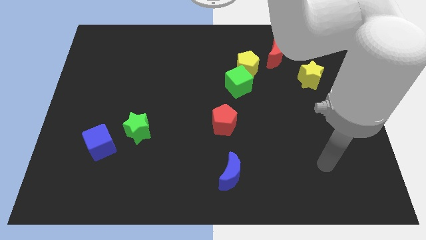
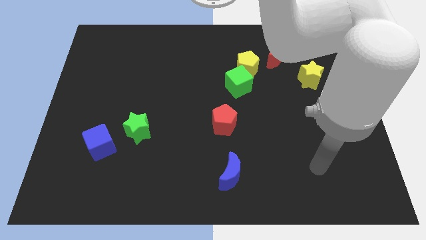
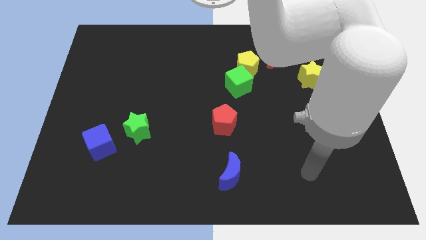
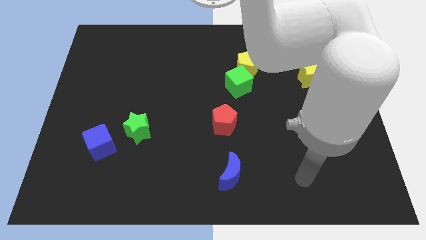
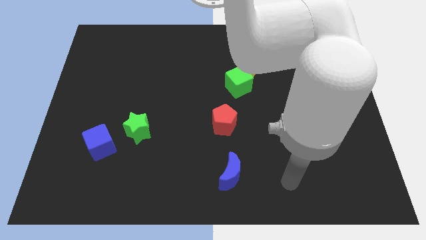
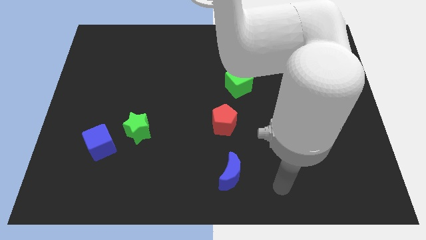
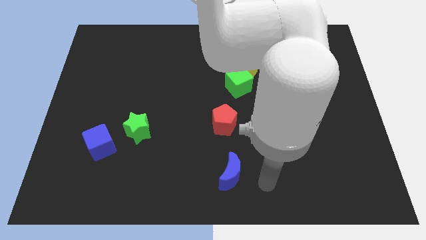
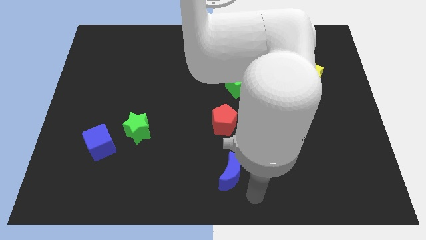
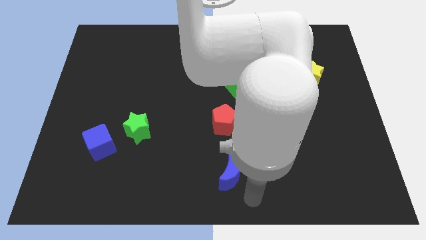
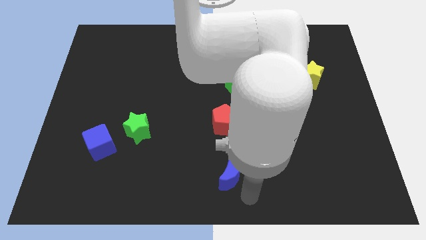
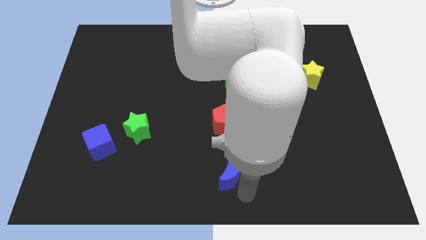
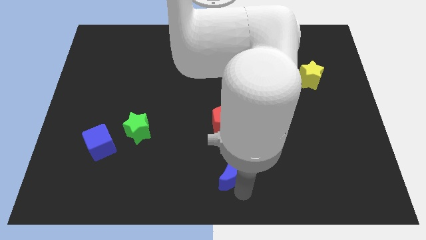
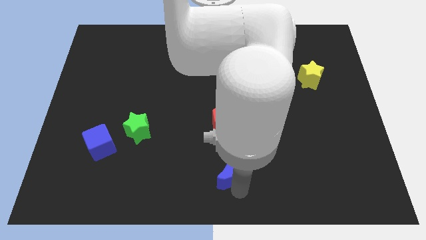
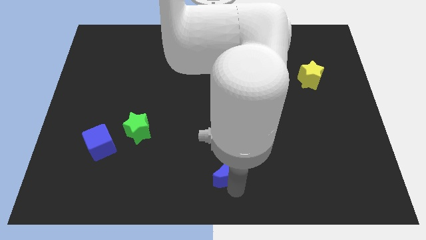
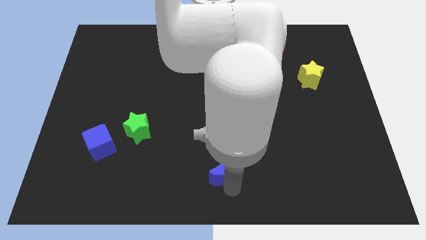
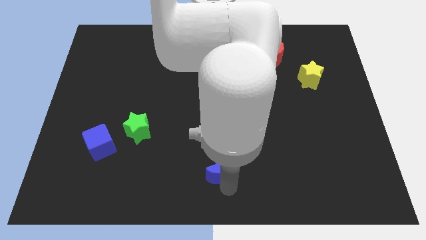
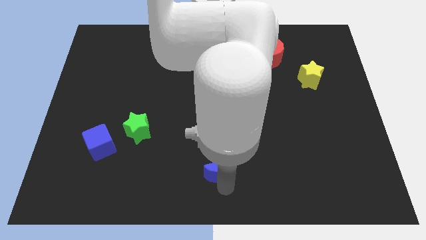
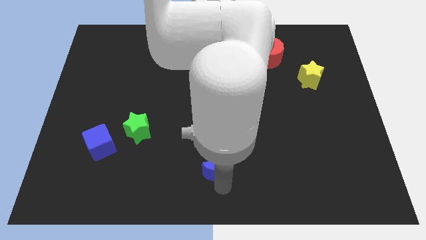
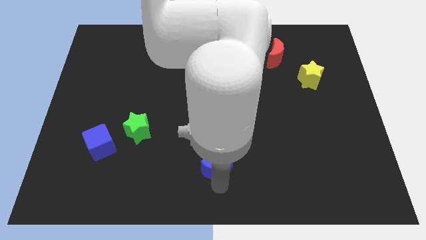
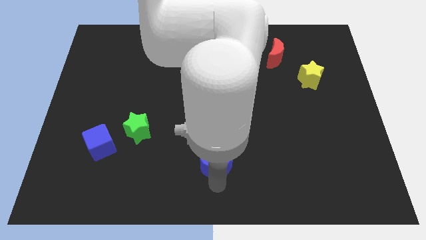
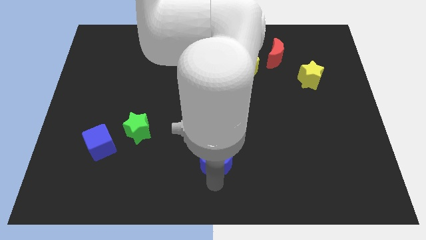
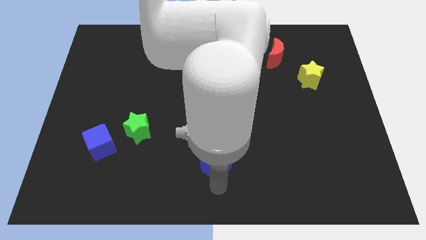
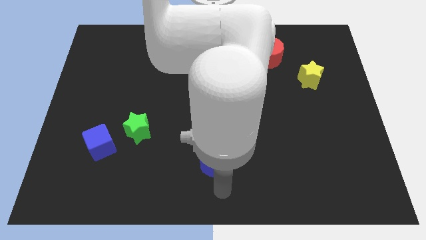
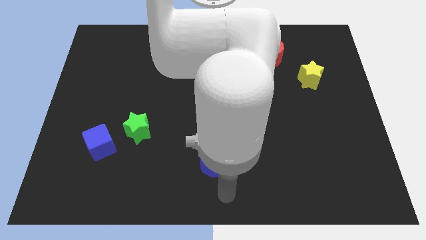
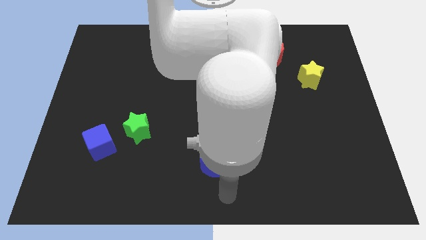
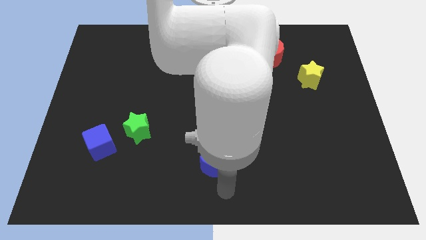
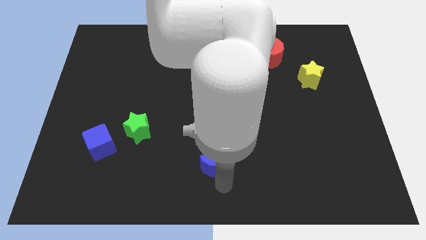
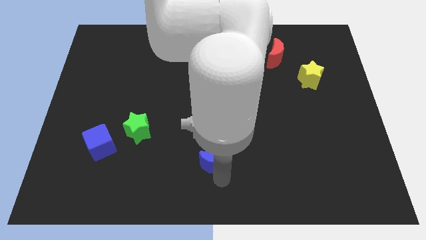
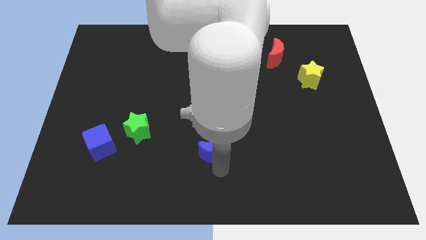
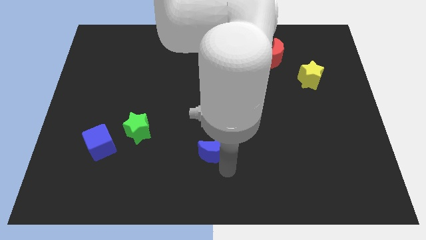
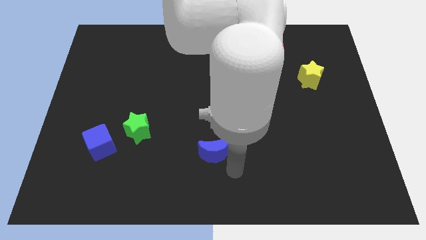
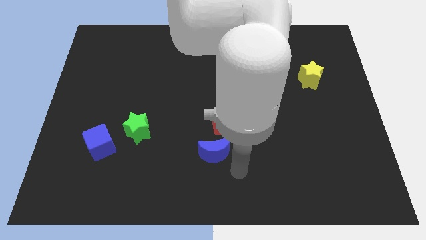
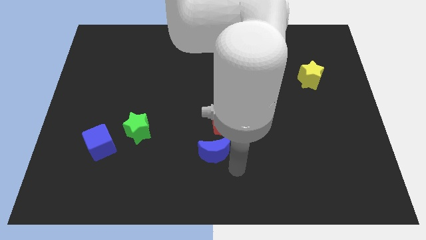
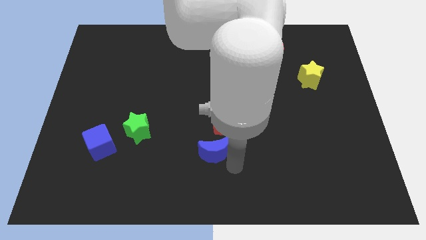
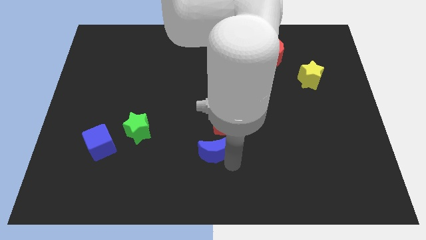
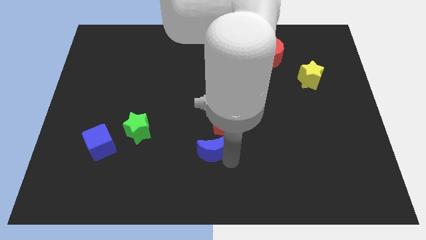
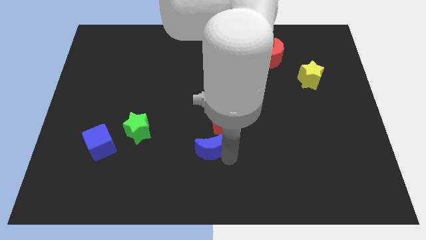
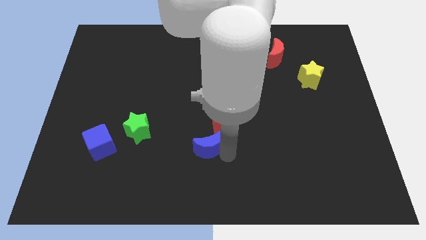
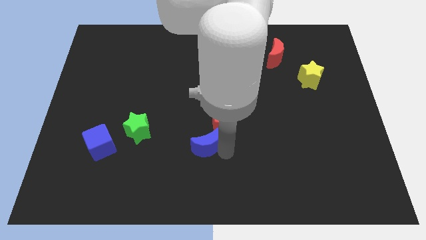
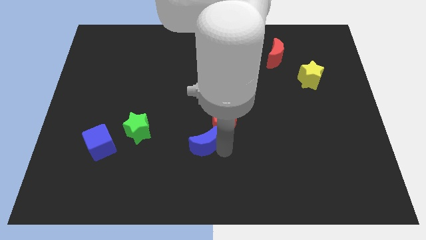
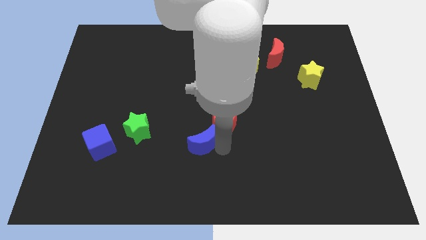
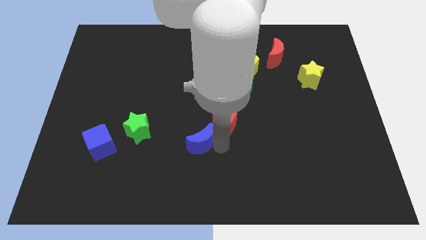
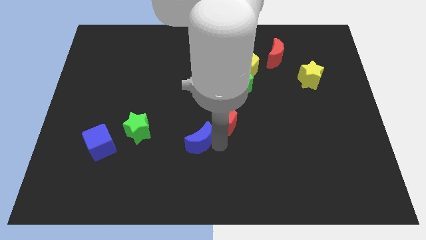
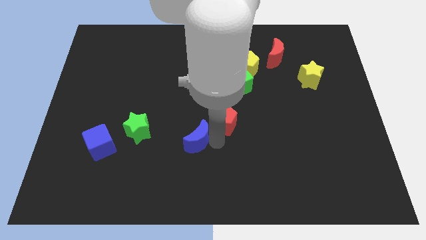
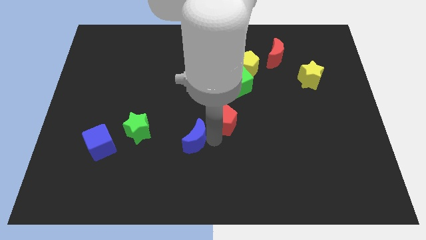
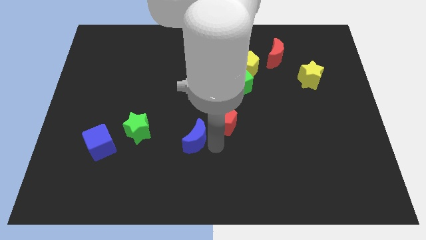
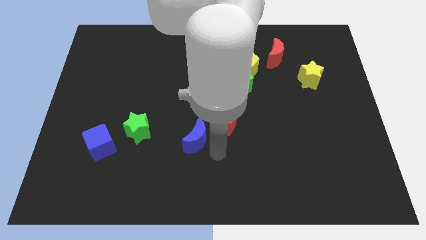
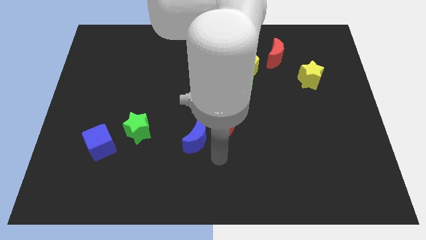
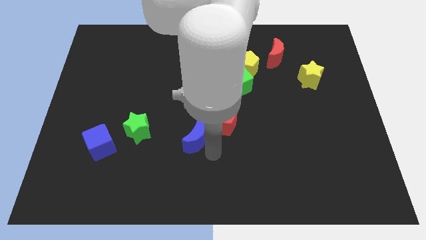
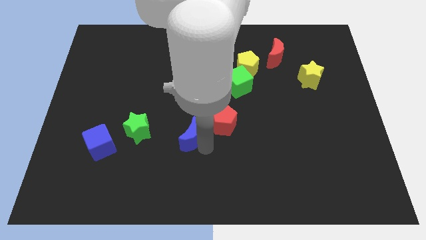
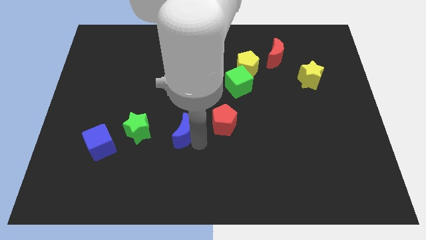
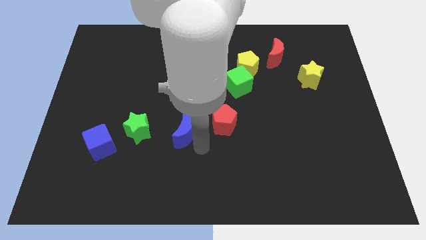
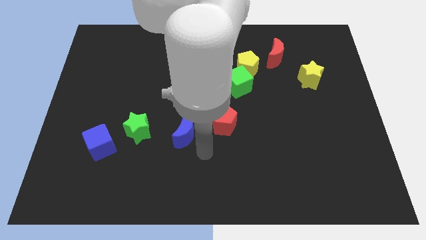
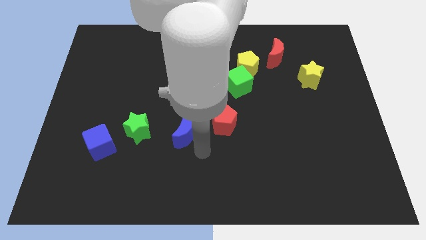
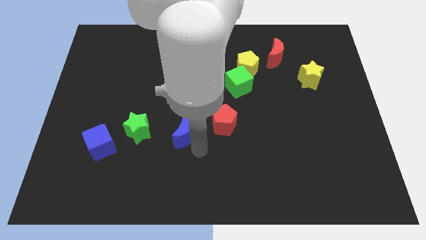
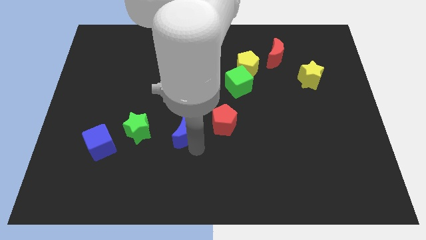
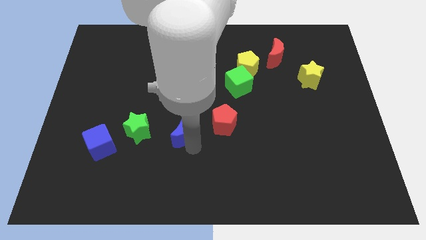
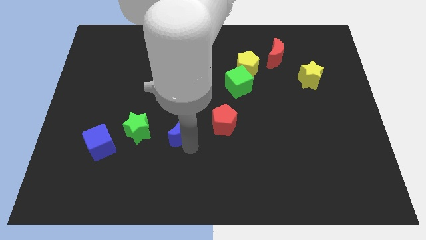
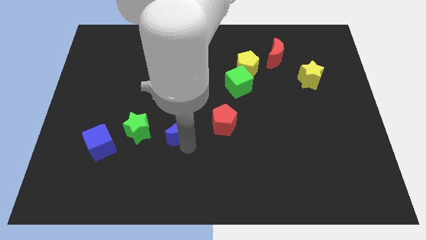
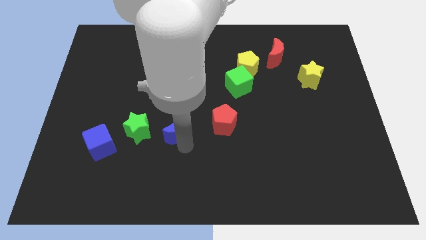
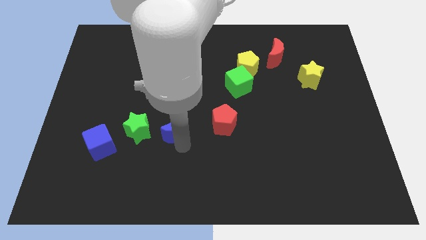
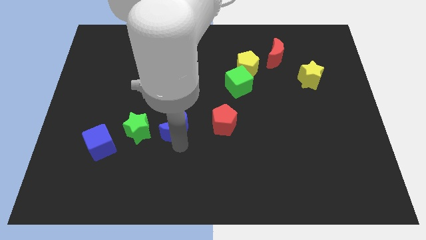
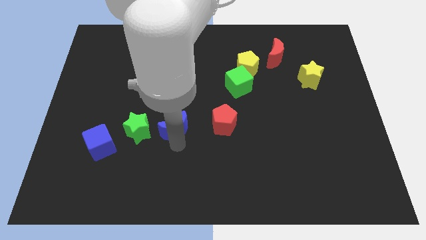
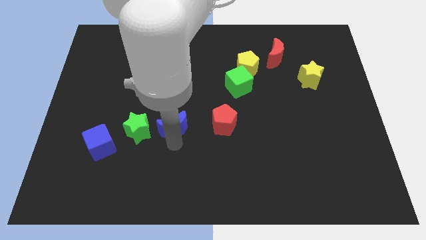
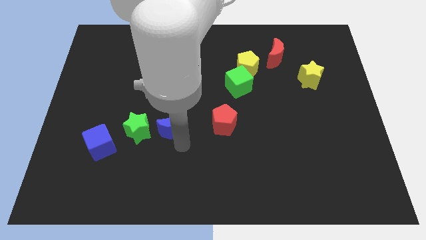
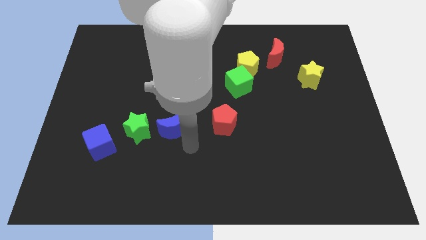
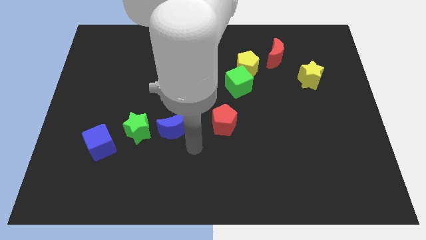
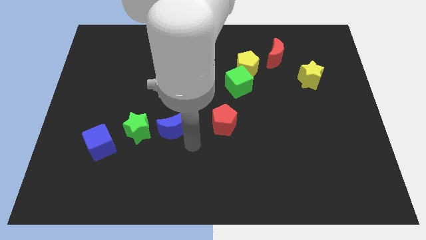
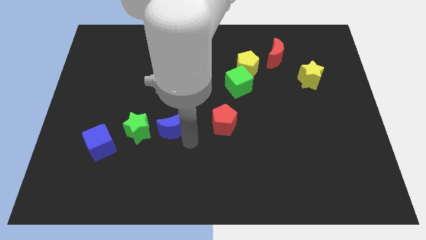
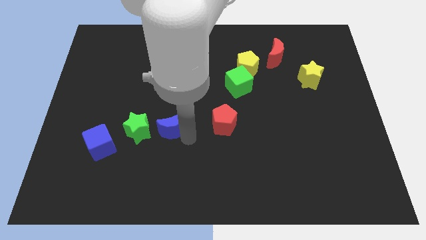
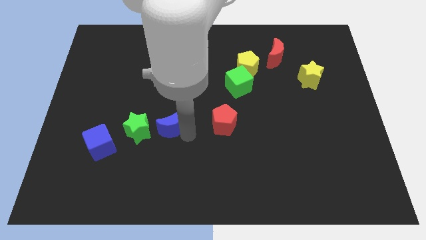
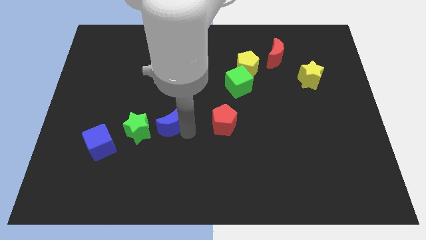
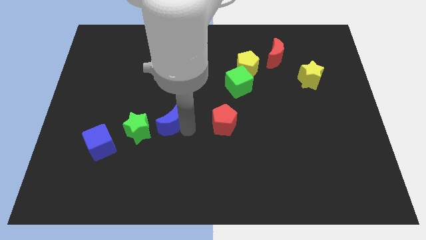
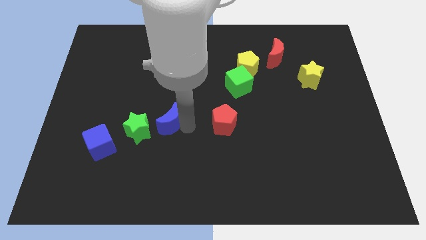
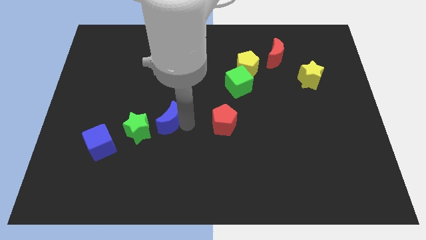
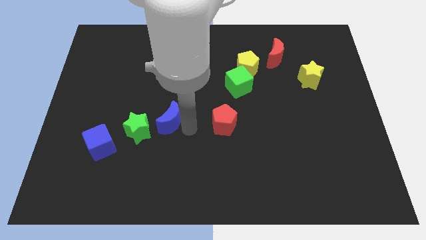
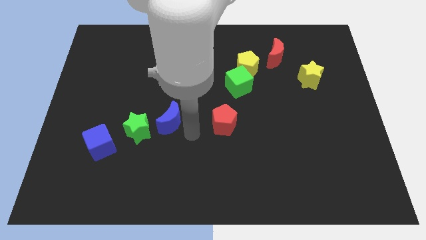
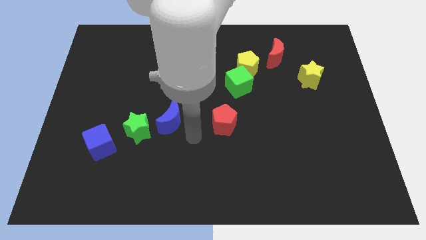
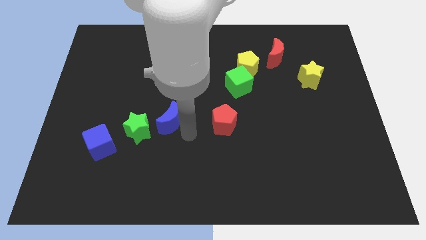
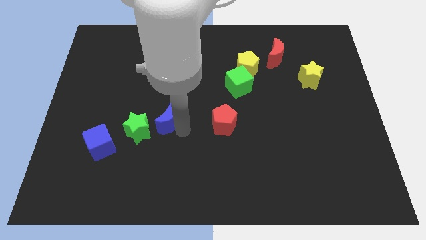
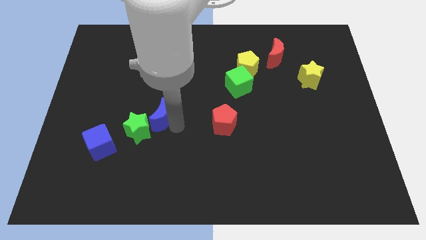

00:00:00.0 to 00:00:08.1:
move the blue moon upwards and left diagonally
